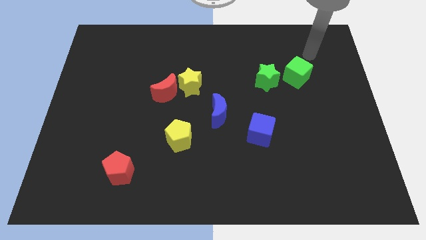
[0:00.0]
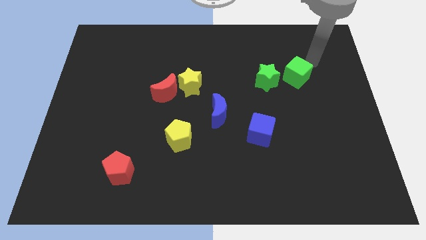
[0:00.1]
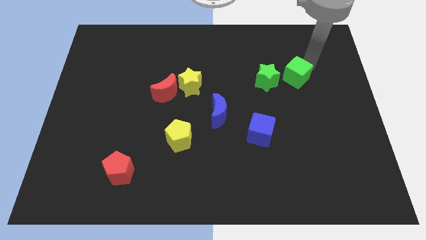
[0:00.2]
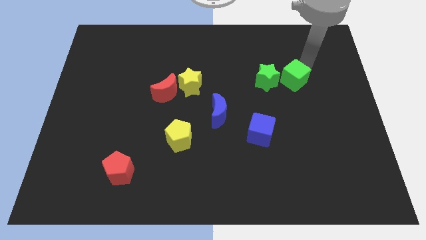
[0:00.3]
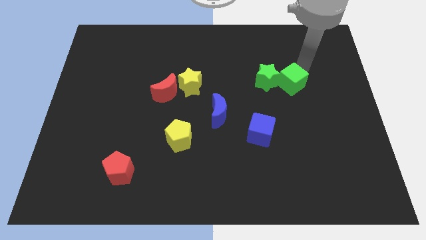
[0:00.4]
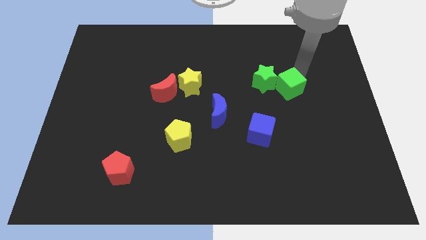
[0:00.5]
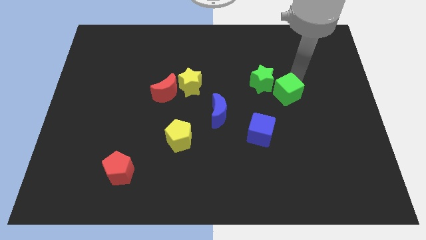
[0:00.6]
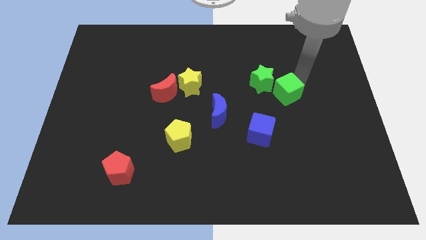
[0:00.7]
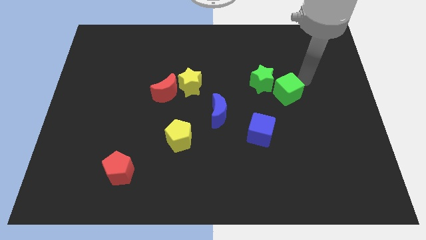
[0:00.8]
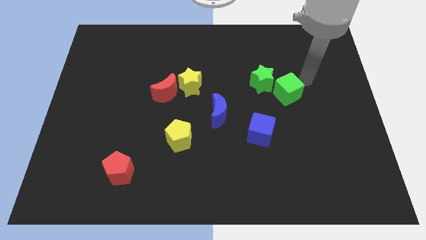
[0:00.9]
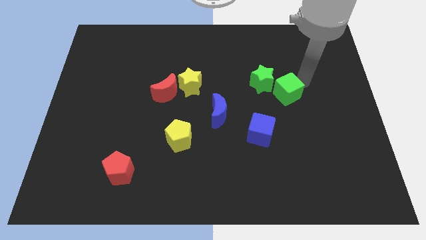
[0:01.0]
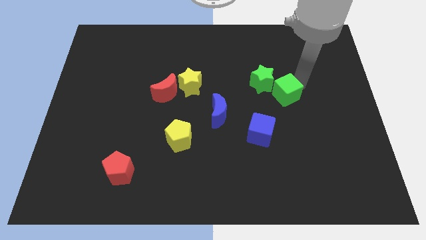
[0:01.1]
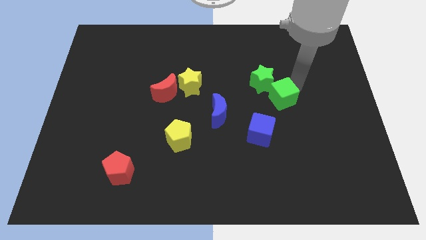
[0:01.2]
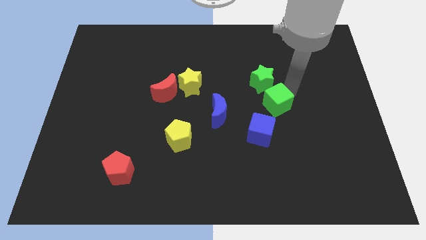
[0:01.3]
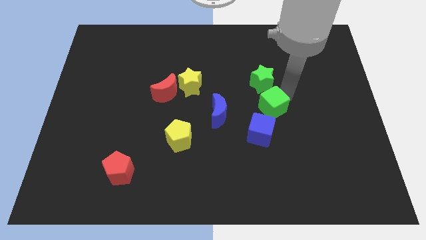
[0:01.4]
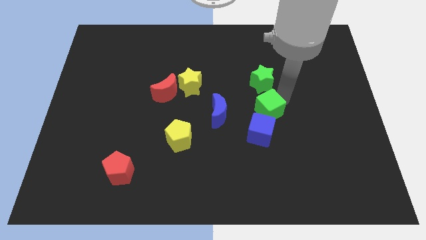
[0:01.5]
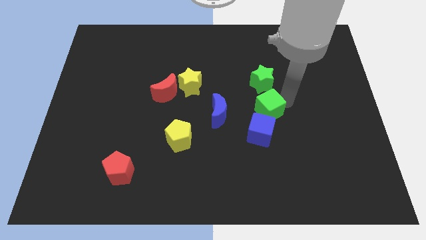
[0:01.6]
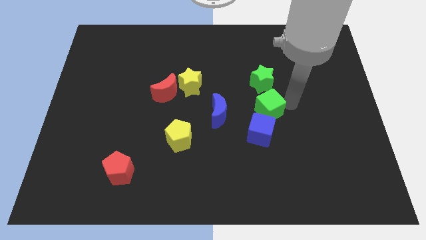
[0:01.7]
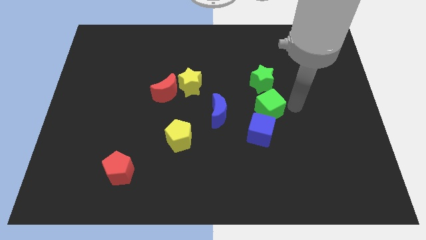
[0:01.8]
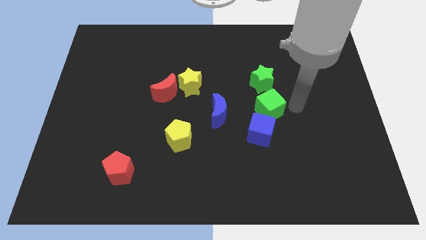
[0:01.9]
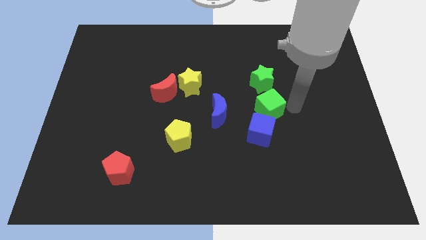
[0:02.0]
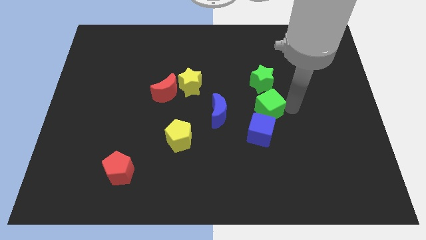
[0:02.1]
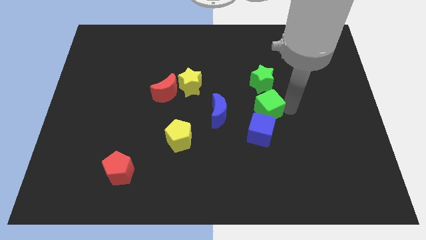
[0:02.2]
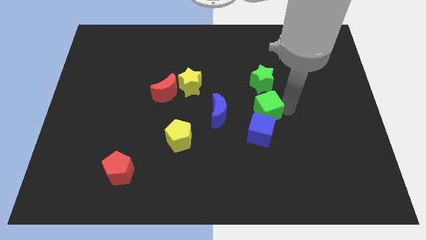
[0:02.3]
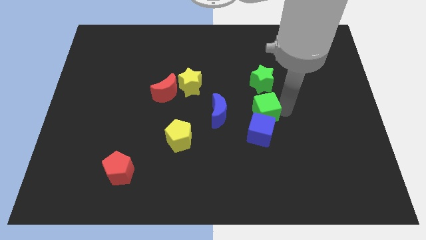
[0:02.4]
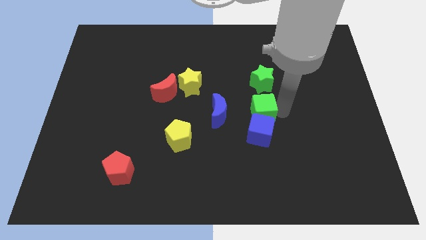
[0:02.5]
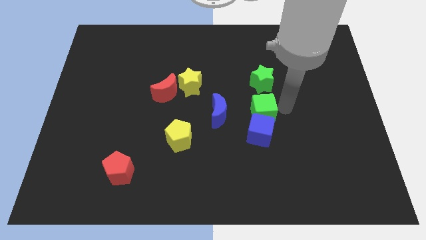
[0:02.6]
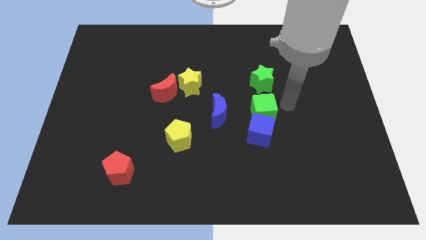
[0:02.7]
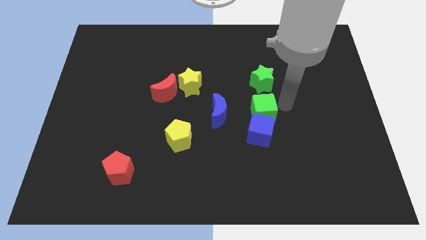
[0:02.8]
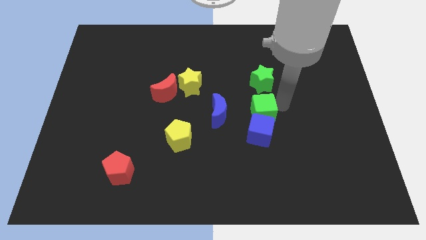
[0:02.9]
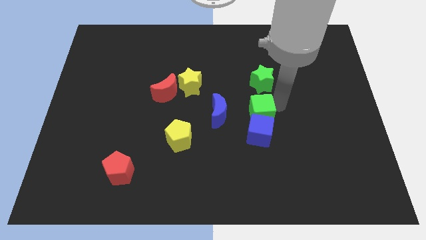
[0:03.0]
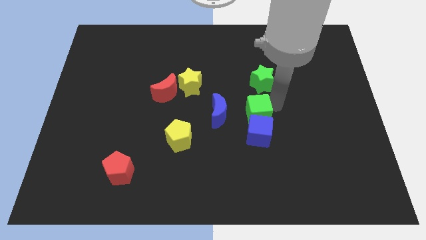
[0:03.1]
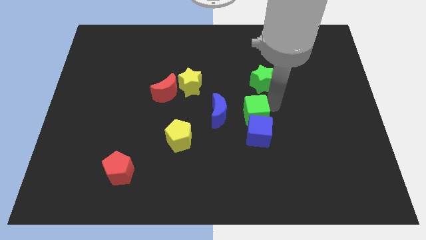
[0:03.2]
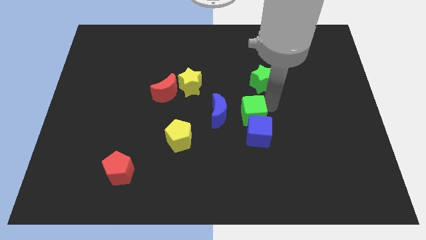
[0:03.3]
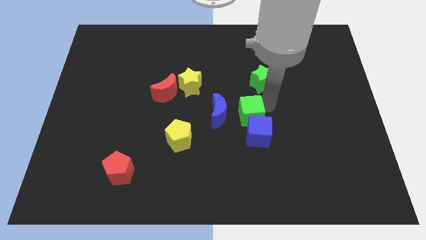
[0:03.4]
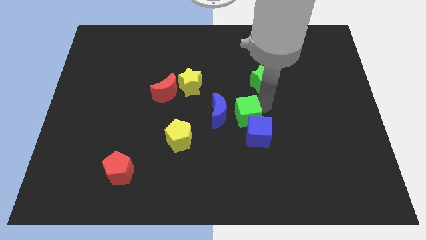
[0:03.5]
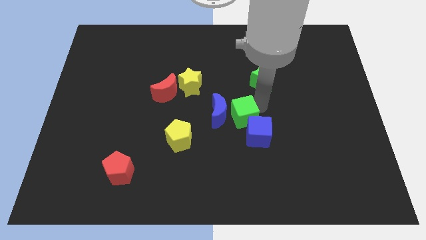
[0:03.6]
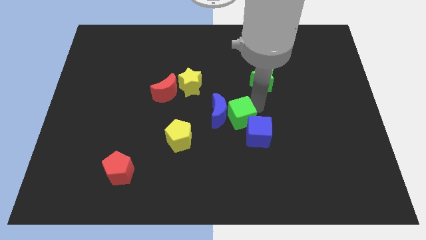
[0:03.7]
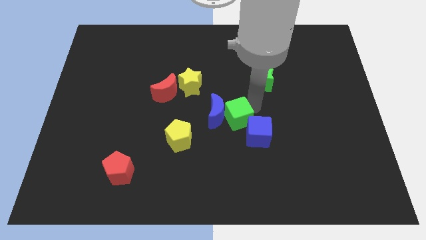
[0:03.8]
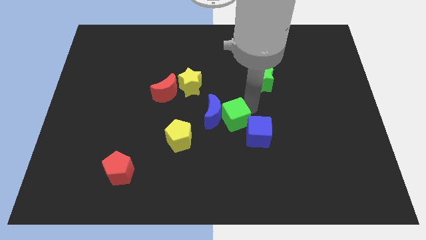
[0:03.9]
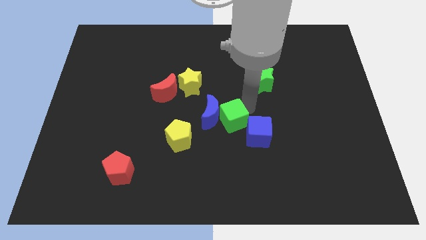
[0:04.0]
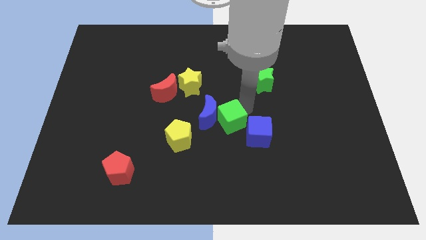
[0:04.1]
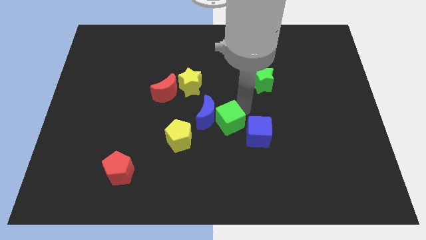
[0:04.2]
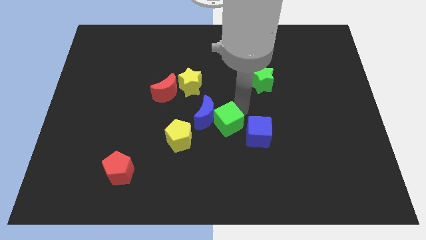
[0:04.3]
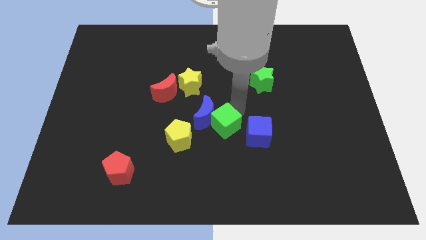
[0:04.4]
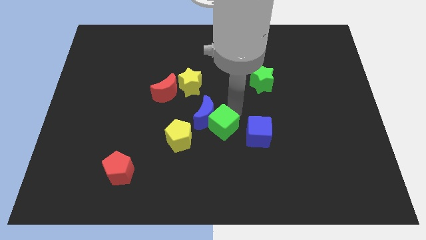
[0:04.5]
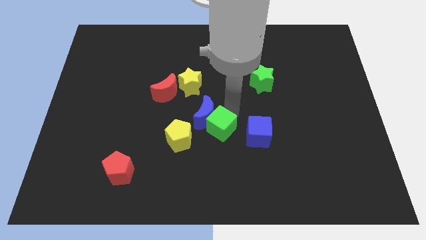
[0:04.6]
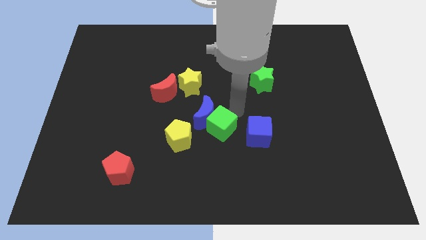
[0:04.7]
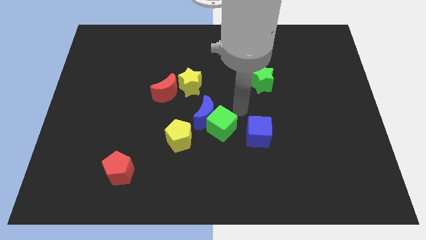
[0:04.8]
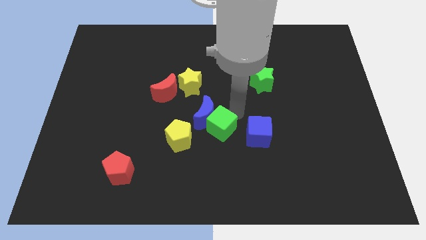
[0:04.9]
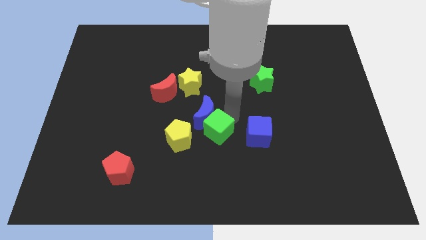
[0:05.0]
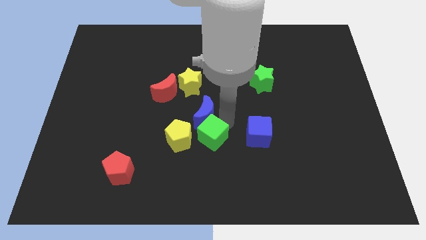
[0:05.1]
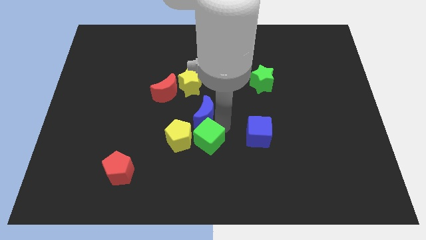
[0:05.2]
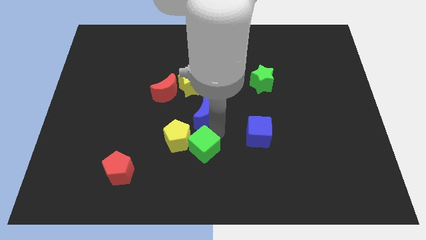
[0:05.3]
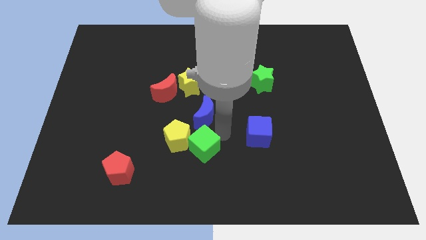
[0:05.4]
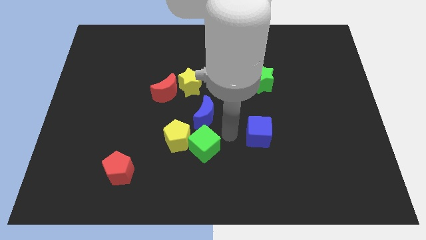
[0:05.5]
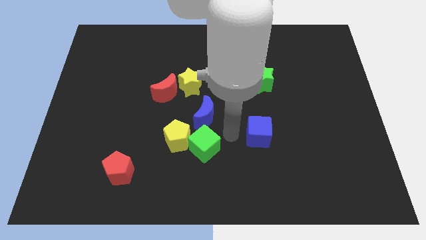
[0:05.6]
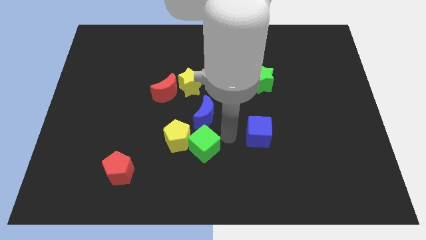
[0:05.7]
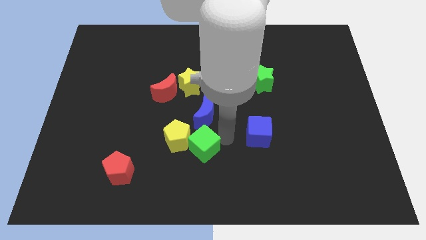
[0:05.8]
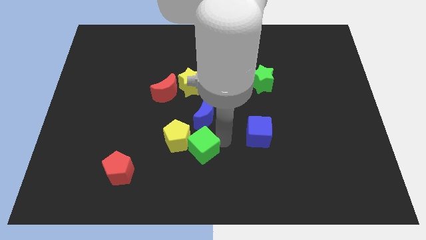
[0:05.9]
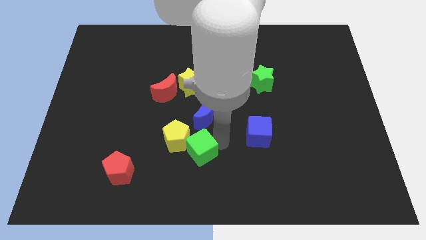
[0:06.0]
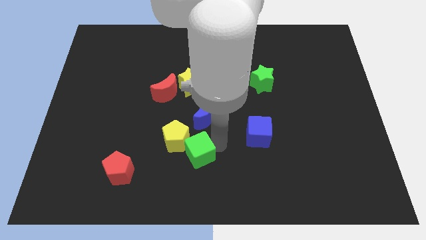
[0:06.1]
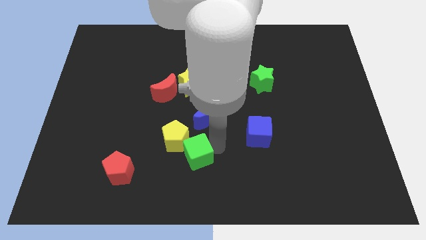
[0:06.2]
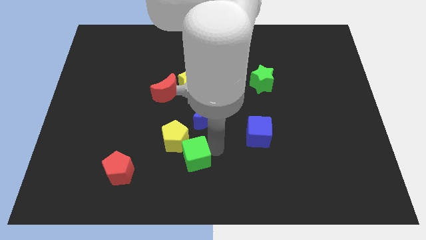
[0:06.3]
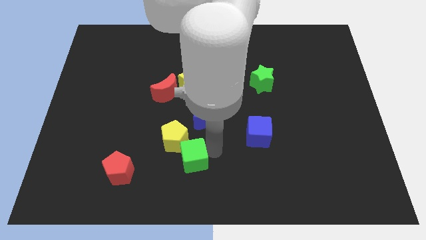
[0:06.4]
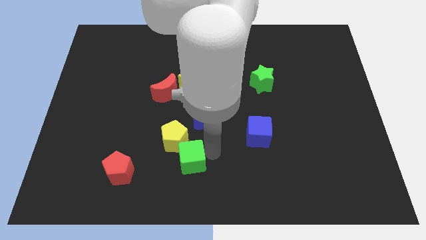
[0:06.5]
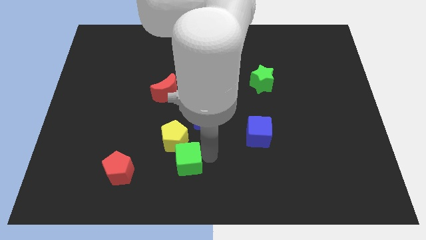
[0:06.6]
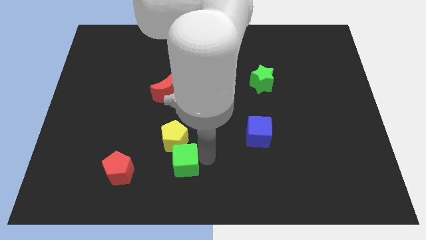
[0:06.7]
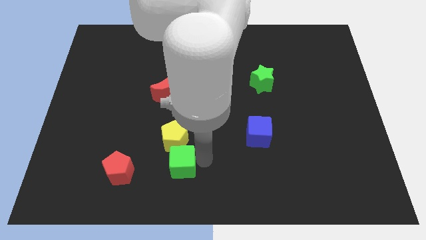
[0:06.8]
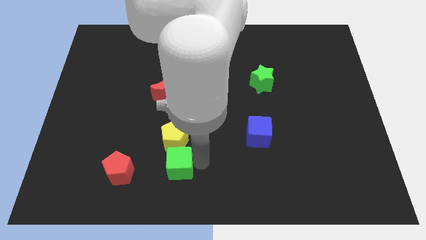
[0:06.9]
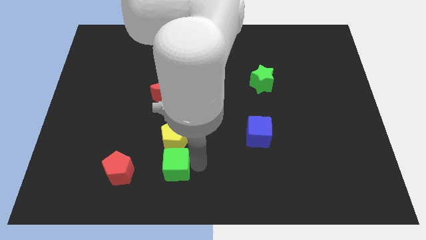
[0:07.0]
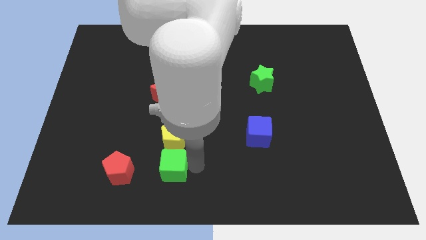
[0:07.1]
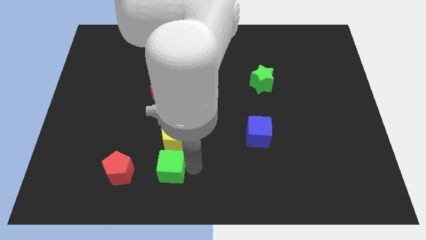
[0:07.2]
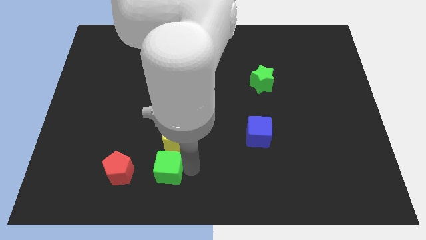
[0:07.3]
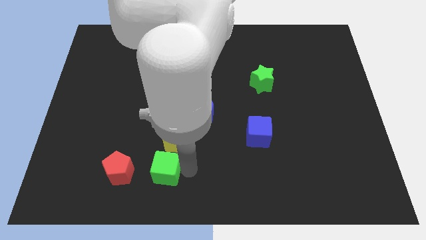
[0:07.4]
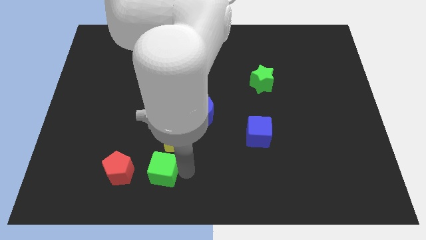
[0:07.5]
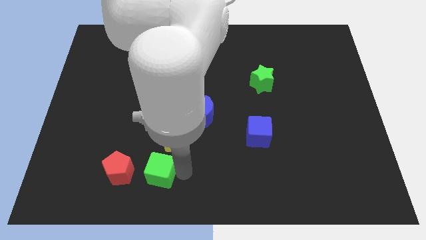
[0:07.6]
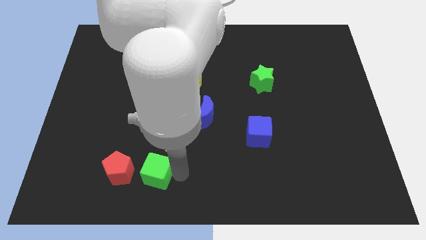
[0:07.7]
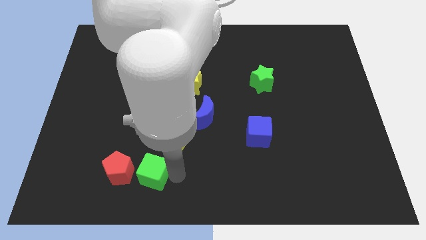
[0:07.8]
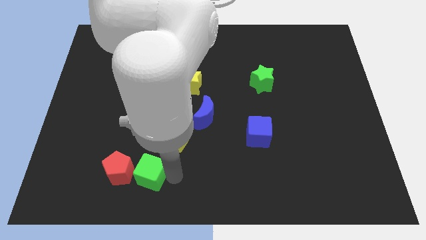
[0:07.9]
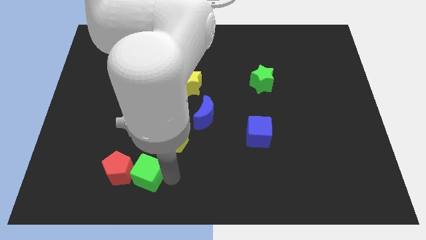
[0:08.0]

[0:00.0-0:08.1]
push the green cube close to the red pentagon
